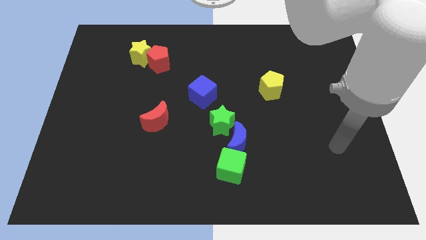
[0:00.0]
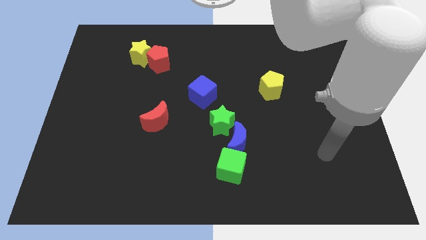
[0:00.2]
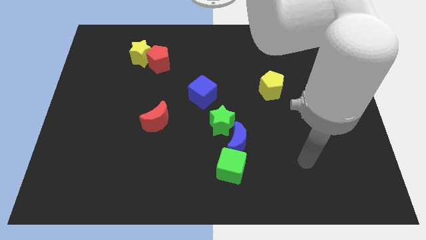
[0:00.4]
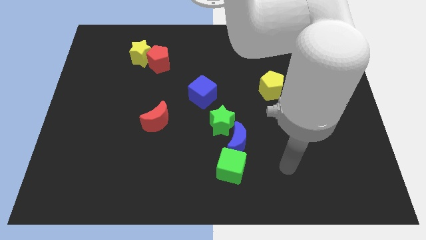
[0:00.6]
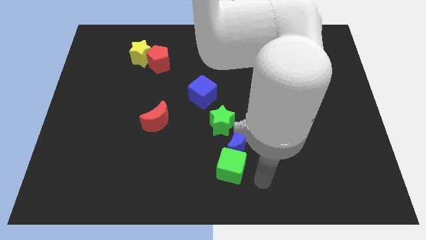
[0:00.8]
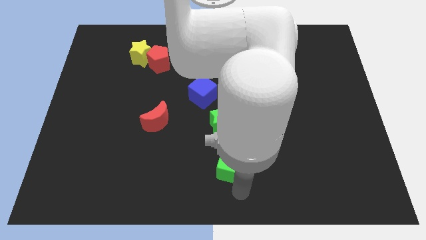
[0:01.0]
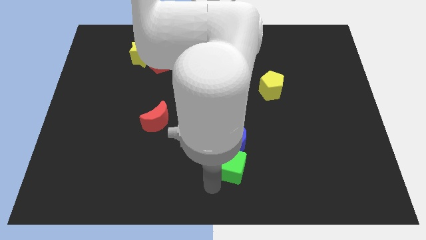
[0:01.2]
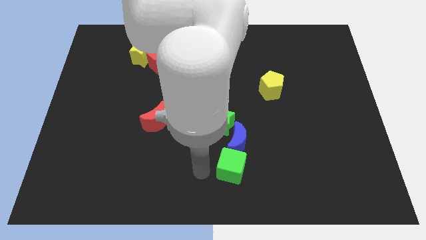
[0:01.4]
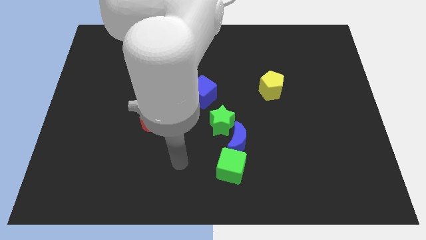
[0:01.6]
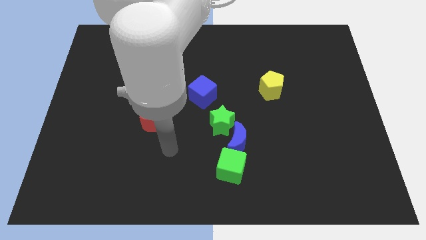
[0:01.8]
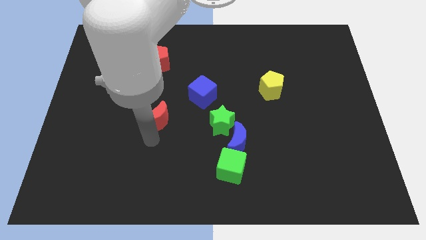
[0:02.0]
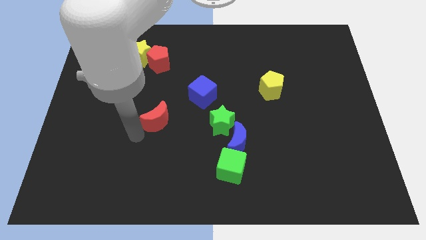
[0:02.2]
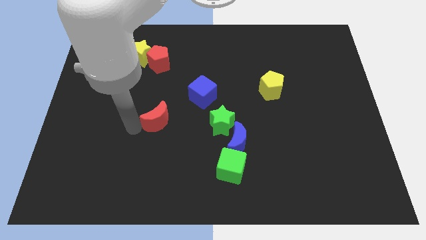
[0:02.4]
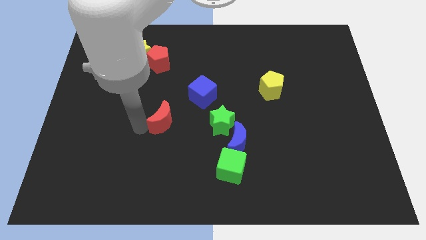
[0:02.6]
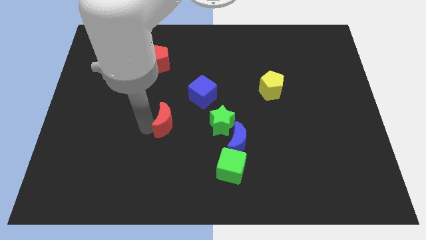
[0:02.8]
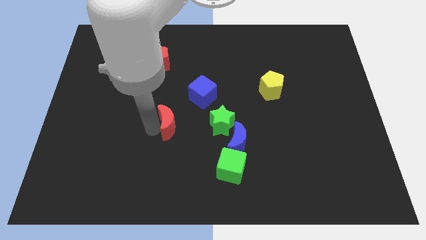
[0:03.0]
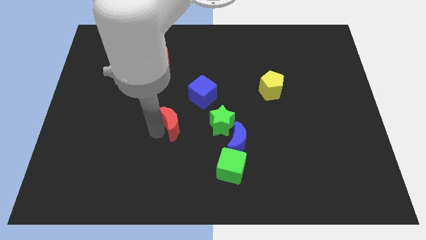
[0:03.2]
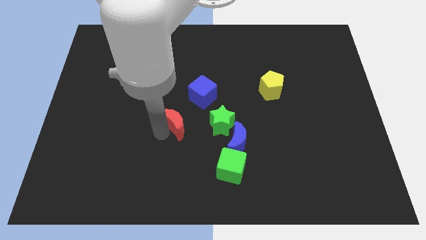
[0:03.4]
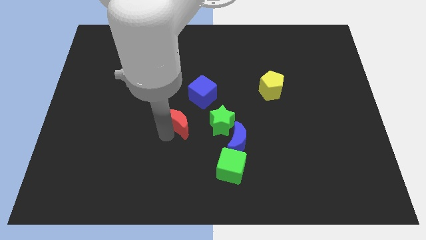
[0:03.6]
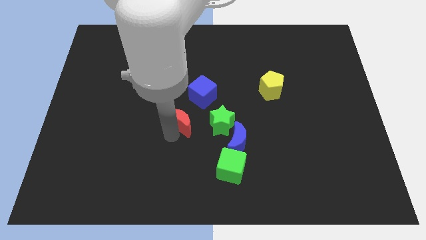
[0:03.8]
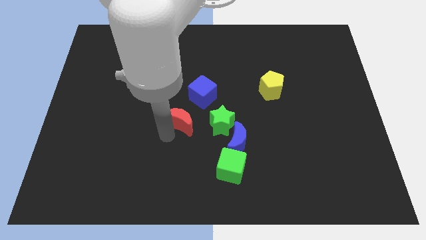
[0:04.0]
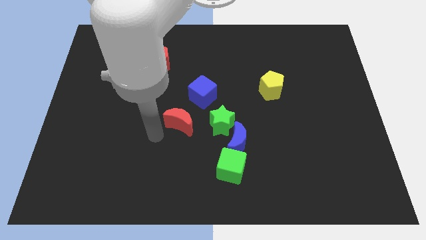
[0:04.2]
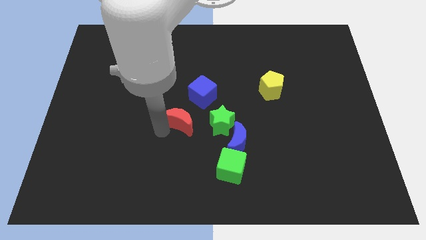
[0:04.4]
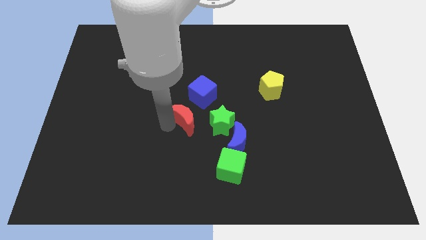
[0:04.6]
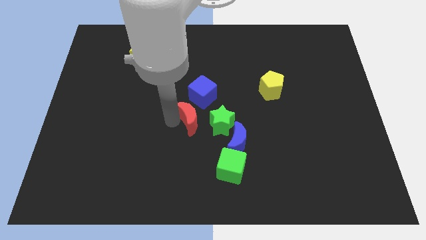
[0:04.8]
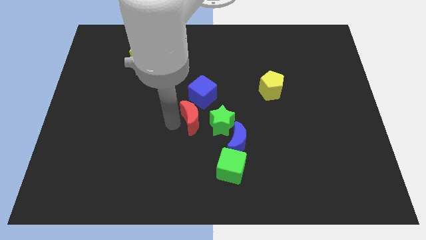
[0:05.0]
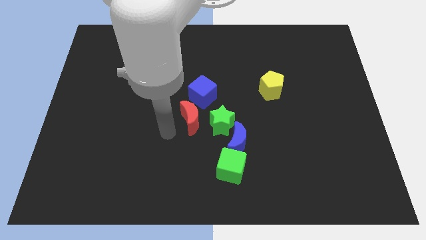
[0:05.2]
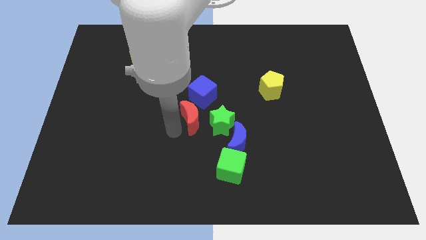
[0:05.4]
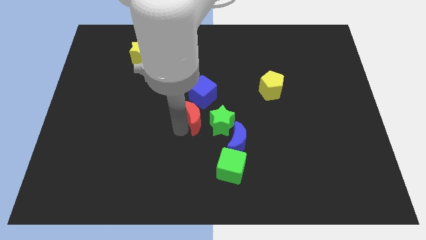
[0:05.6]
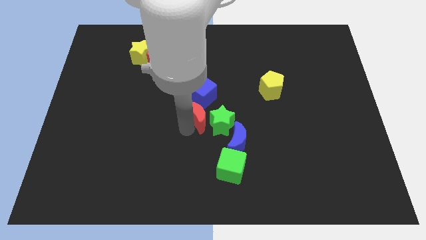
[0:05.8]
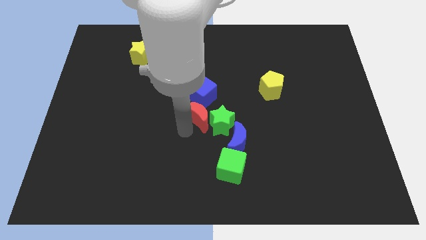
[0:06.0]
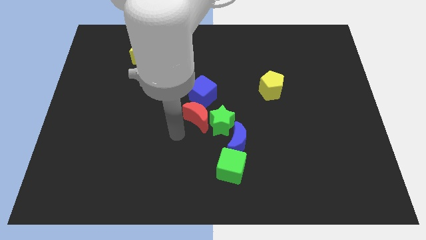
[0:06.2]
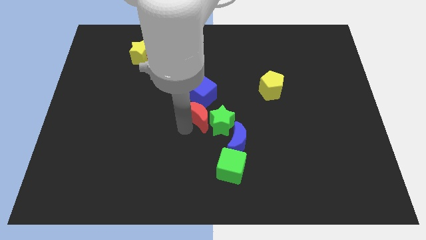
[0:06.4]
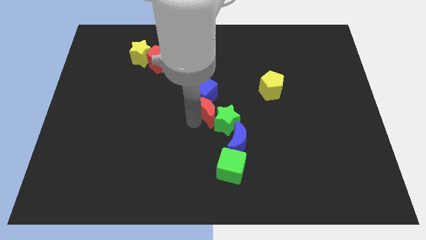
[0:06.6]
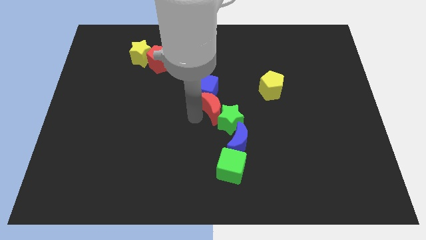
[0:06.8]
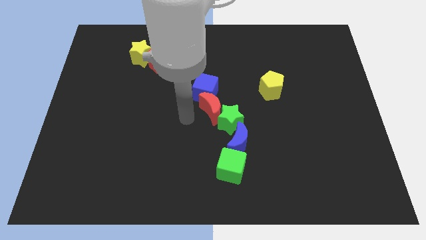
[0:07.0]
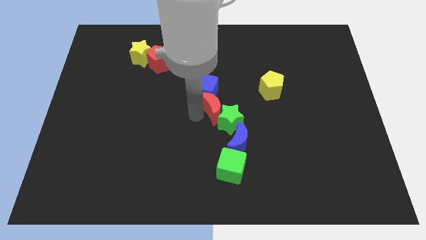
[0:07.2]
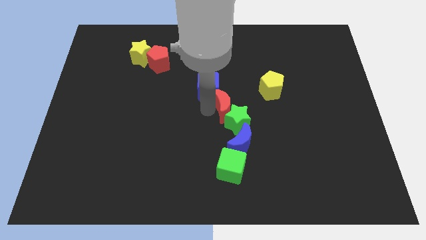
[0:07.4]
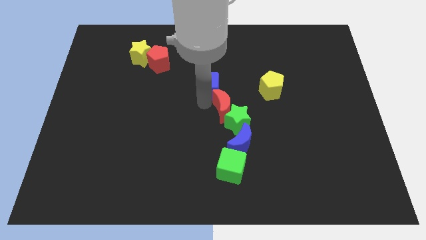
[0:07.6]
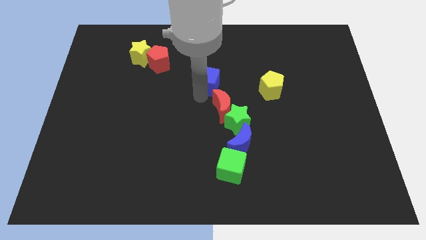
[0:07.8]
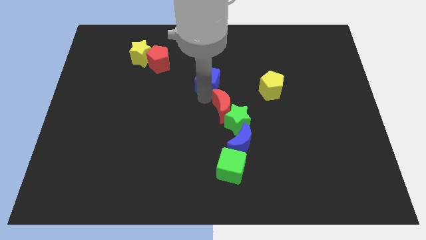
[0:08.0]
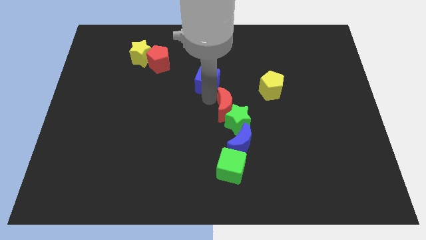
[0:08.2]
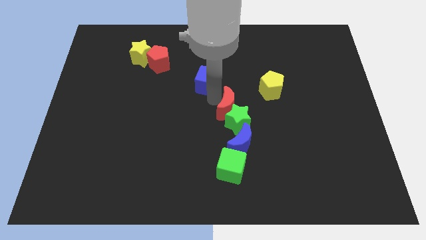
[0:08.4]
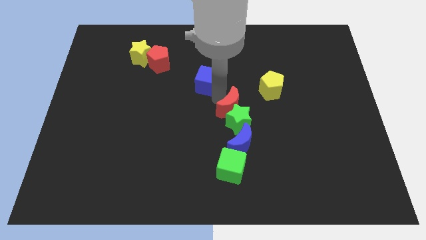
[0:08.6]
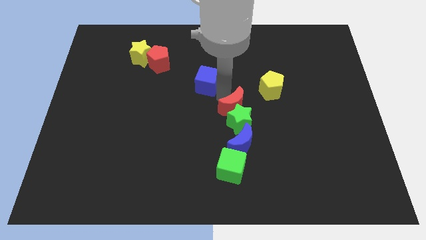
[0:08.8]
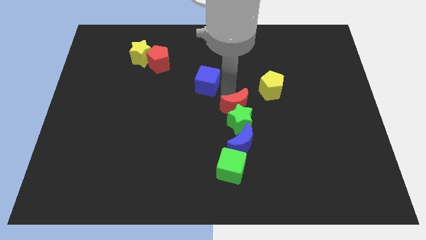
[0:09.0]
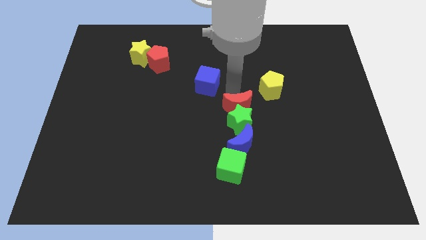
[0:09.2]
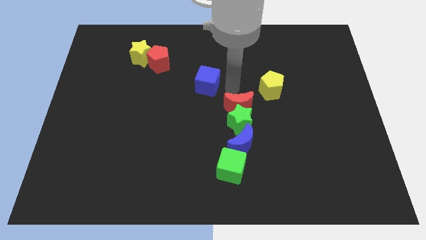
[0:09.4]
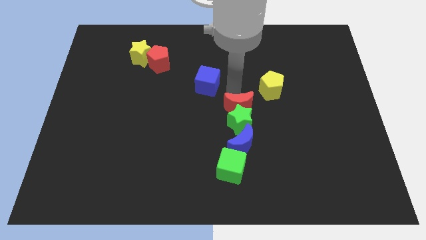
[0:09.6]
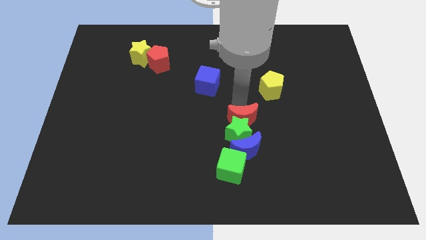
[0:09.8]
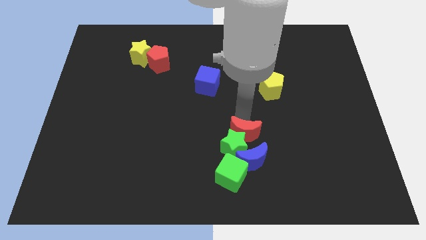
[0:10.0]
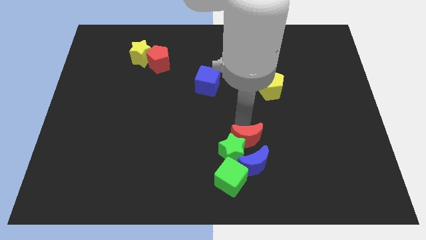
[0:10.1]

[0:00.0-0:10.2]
slide the red moon to the top right of the green cube

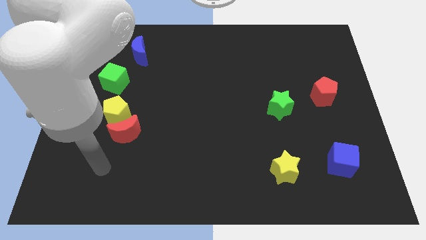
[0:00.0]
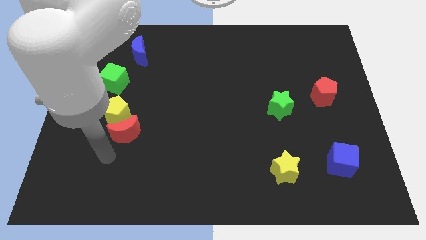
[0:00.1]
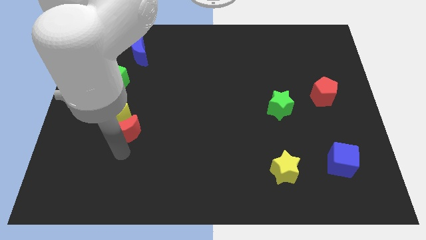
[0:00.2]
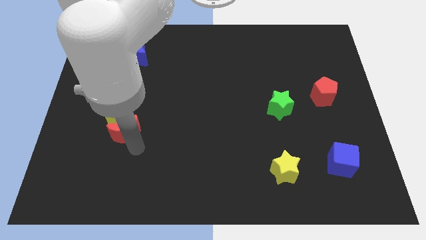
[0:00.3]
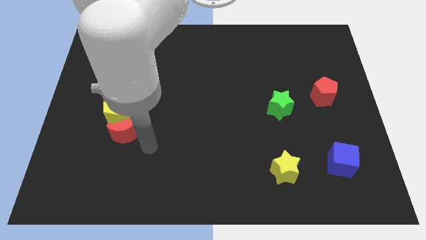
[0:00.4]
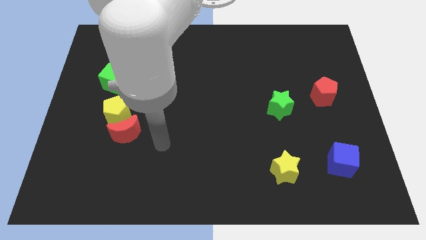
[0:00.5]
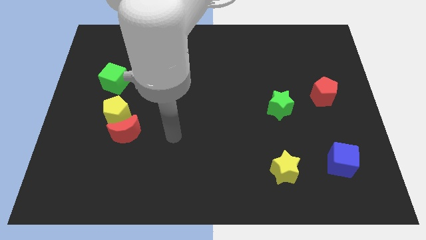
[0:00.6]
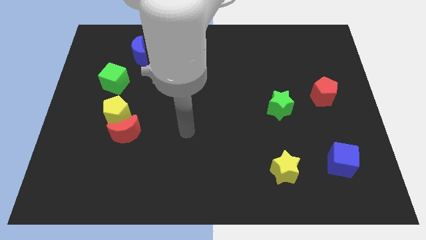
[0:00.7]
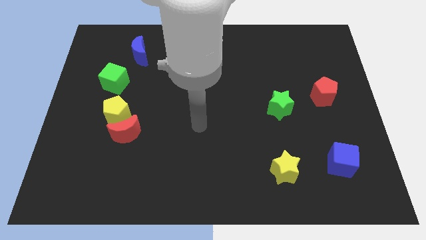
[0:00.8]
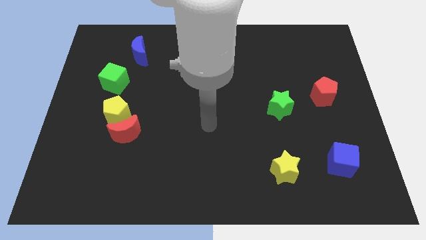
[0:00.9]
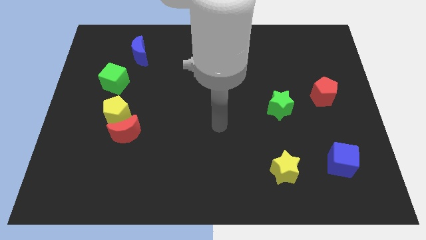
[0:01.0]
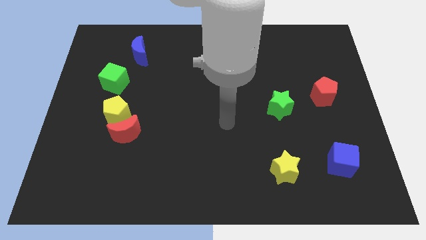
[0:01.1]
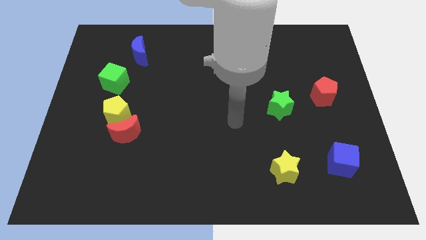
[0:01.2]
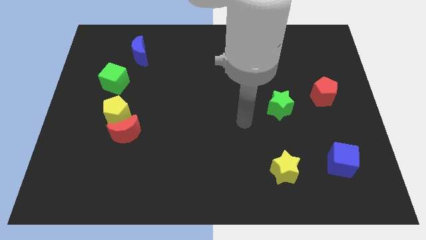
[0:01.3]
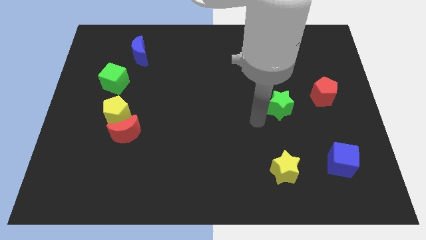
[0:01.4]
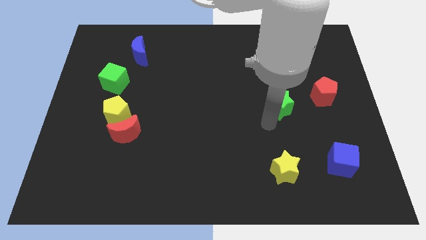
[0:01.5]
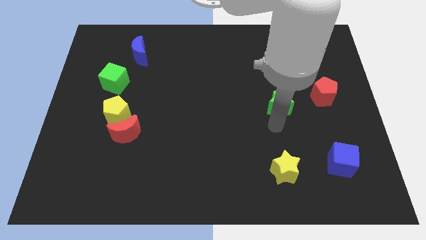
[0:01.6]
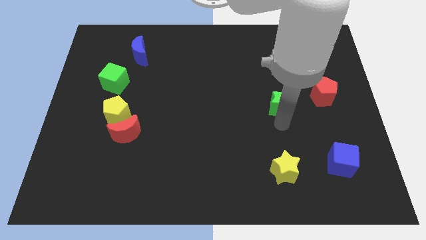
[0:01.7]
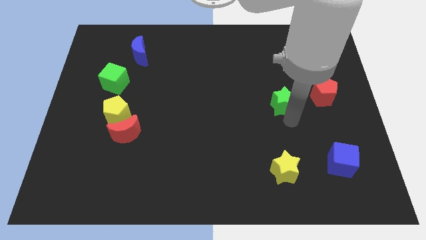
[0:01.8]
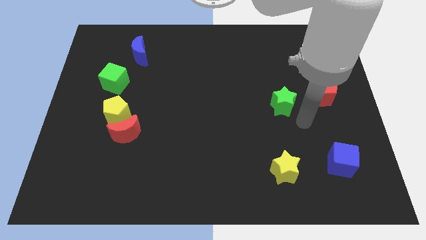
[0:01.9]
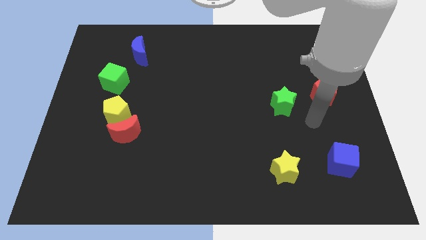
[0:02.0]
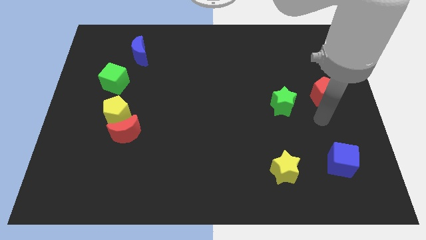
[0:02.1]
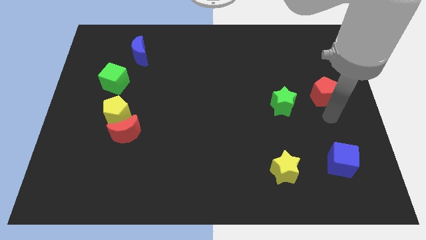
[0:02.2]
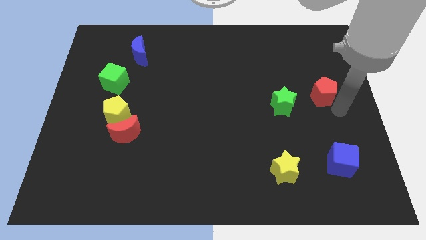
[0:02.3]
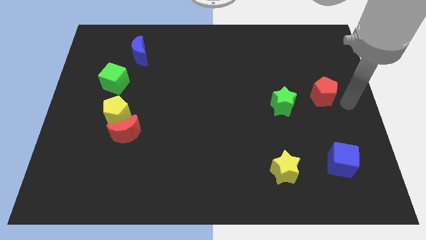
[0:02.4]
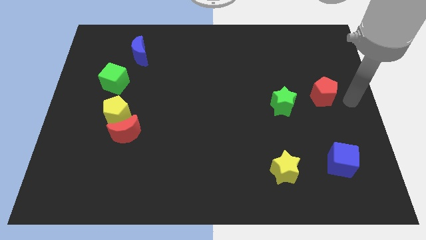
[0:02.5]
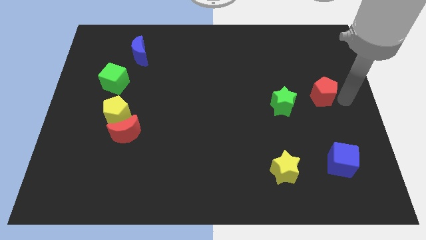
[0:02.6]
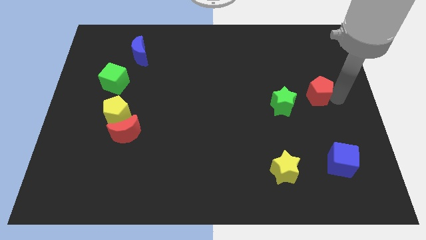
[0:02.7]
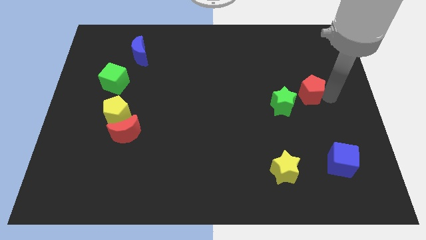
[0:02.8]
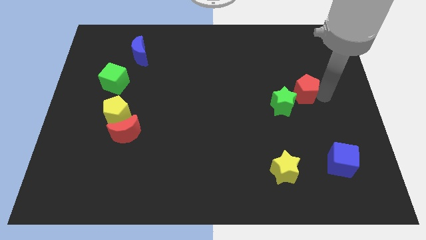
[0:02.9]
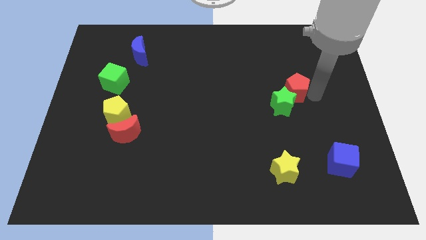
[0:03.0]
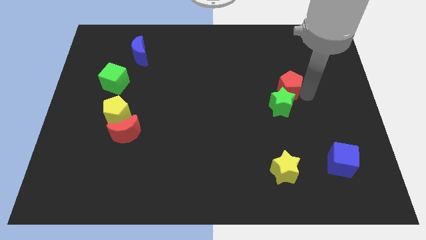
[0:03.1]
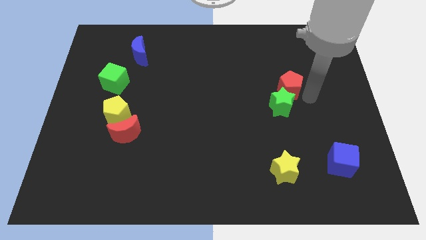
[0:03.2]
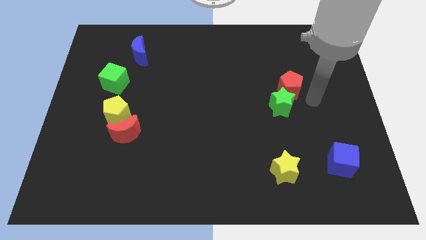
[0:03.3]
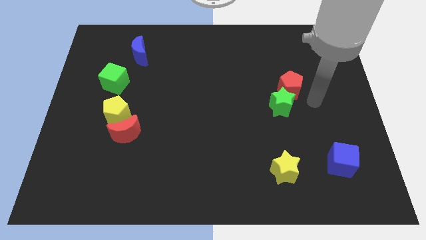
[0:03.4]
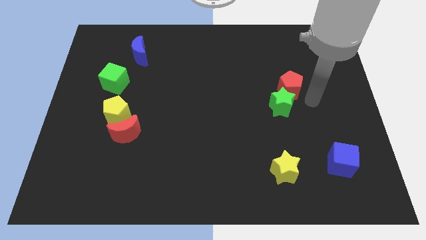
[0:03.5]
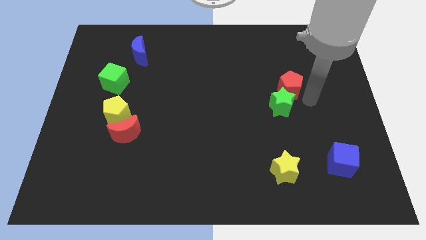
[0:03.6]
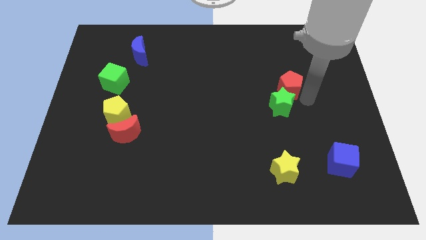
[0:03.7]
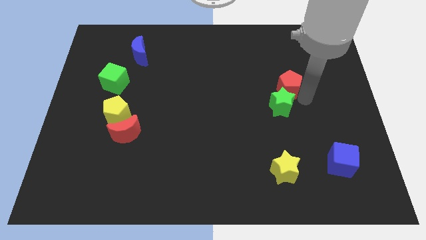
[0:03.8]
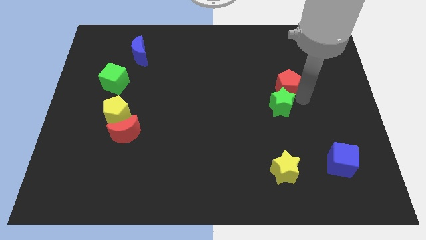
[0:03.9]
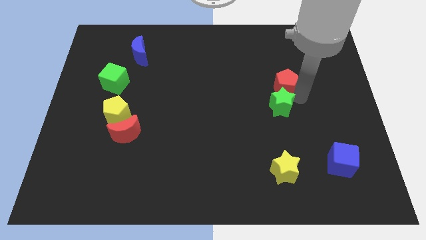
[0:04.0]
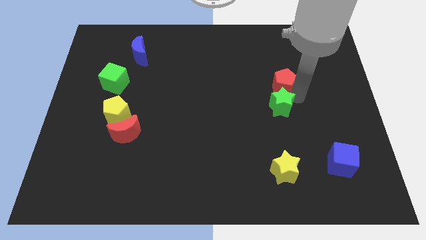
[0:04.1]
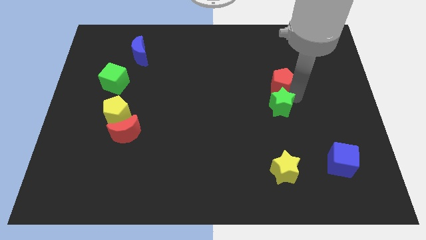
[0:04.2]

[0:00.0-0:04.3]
put the red pentagon to the top left side of the green star
